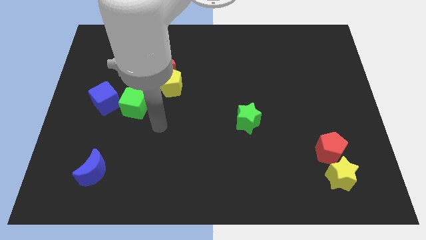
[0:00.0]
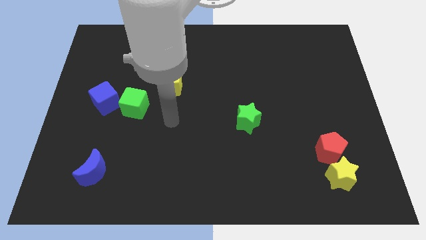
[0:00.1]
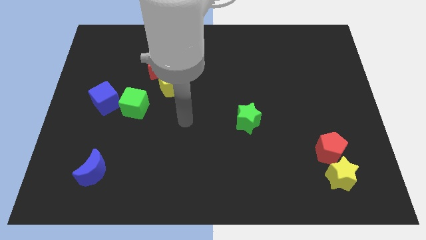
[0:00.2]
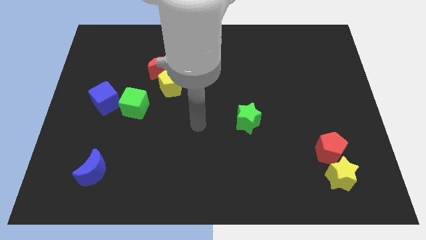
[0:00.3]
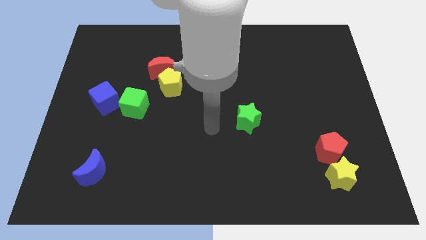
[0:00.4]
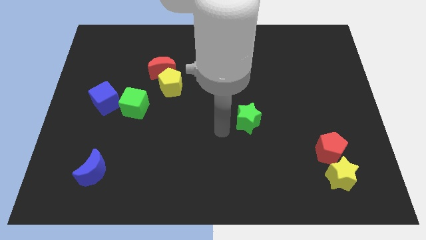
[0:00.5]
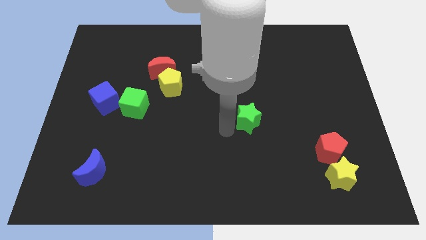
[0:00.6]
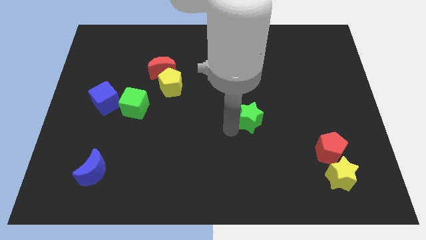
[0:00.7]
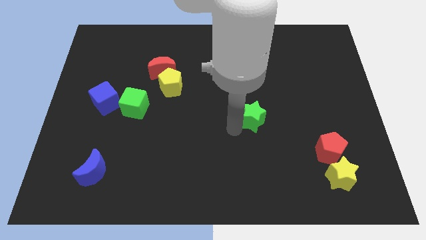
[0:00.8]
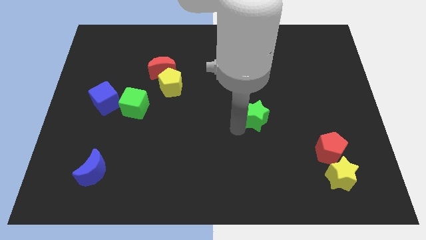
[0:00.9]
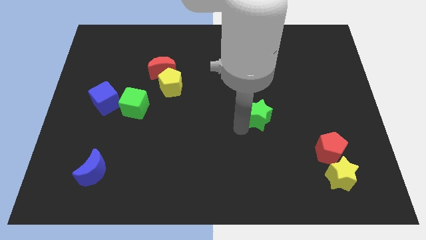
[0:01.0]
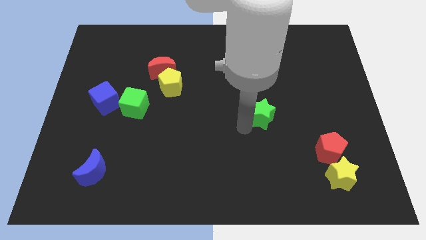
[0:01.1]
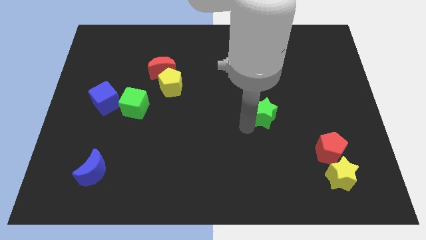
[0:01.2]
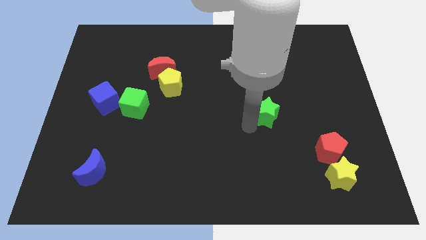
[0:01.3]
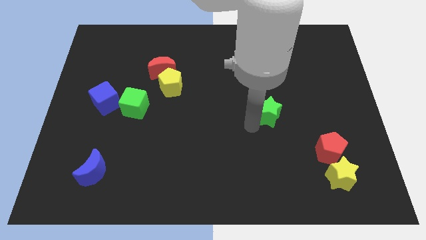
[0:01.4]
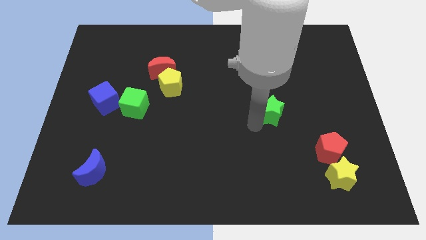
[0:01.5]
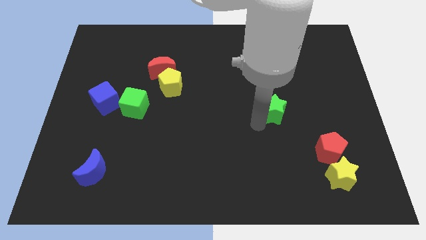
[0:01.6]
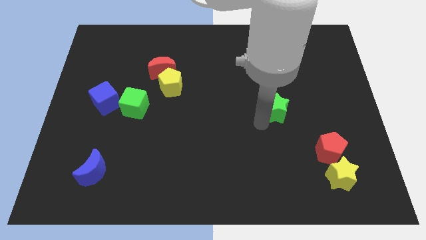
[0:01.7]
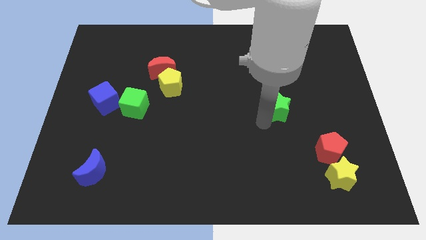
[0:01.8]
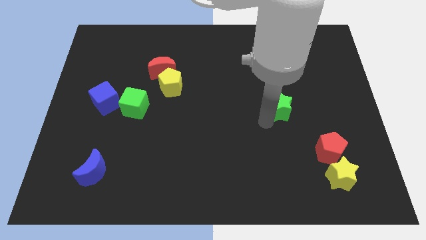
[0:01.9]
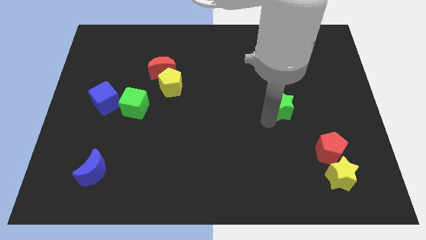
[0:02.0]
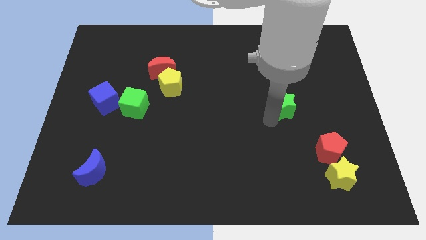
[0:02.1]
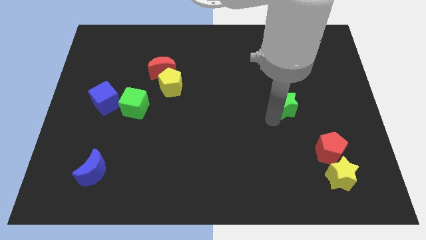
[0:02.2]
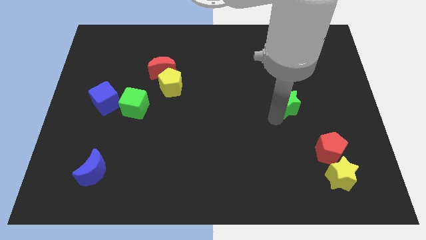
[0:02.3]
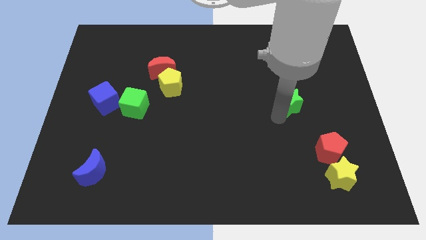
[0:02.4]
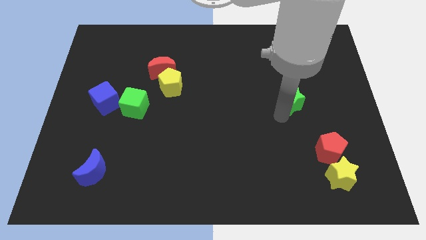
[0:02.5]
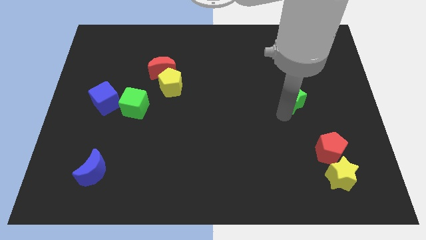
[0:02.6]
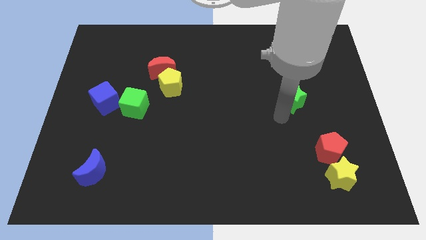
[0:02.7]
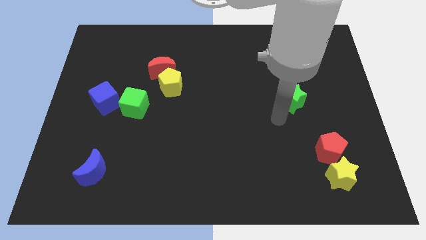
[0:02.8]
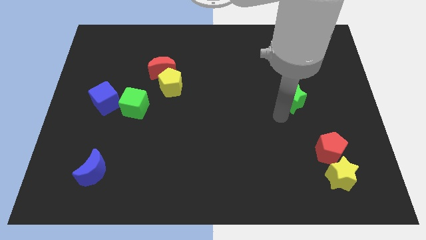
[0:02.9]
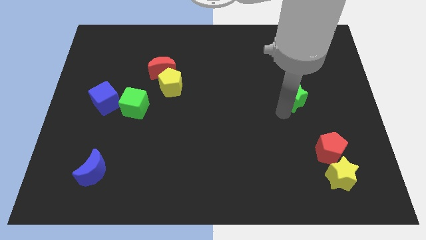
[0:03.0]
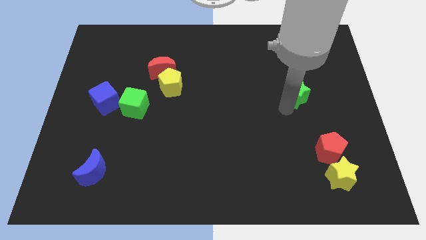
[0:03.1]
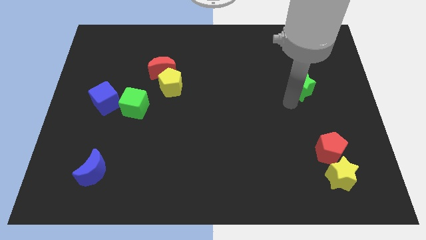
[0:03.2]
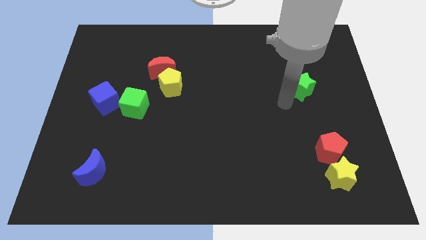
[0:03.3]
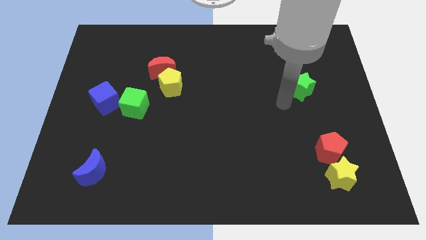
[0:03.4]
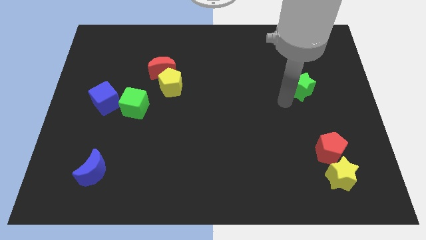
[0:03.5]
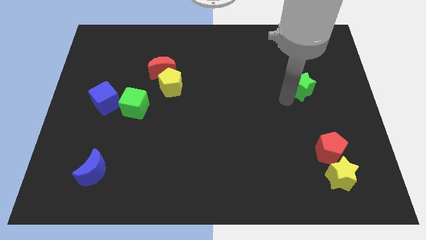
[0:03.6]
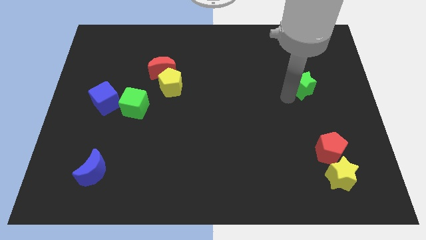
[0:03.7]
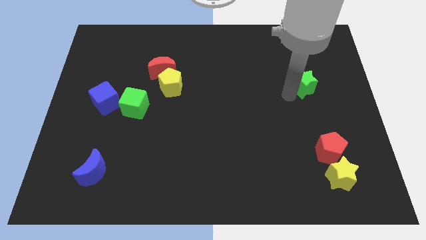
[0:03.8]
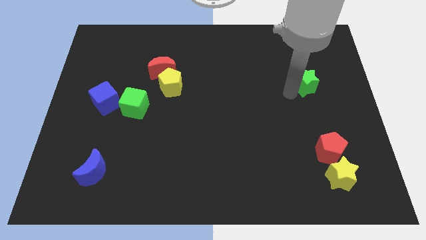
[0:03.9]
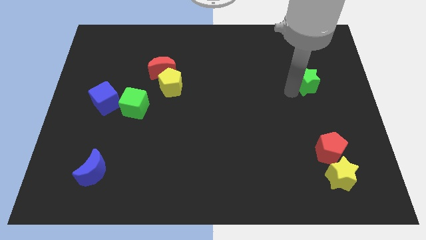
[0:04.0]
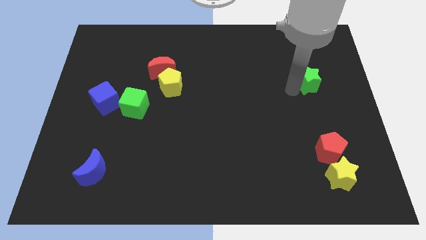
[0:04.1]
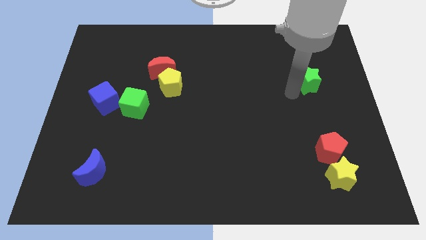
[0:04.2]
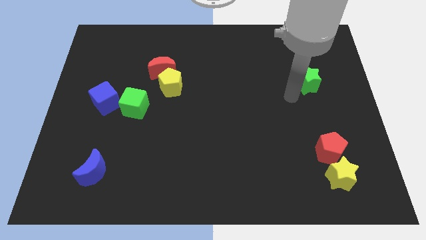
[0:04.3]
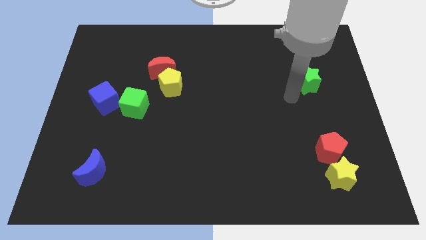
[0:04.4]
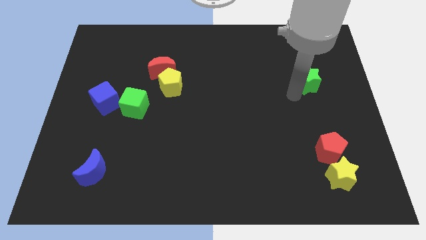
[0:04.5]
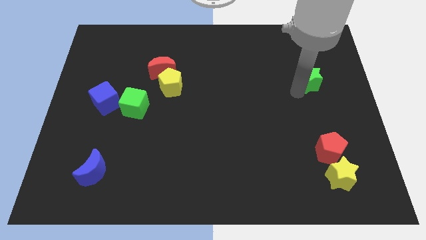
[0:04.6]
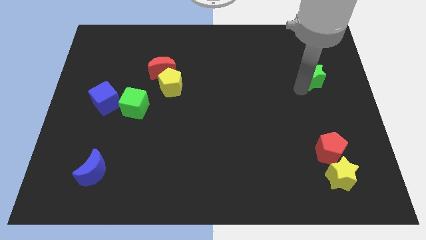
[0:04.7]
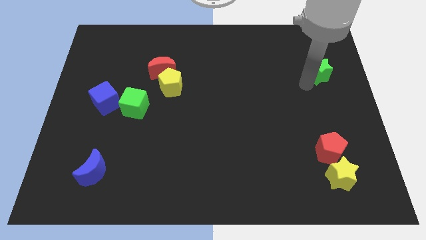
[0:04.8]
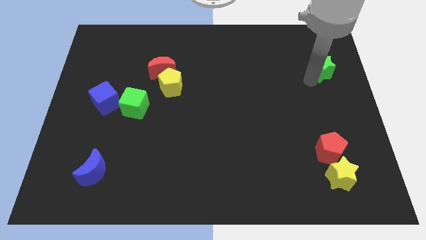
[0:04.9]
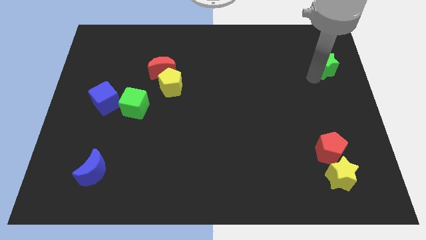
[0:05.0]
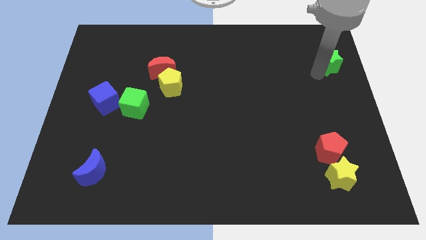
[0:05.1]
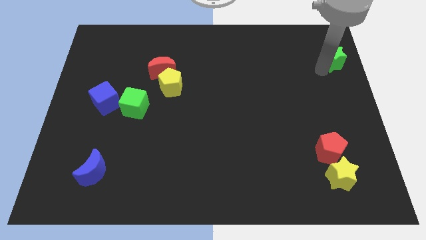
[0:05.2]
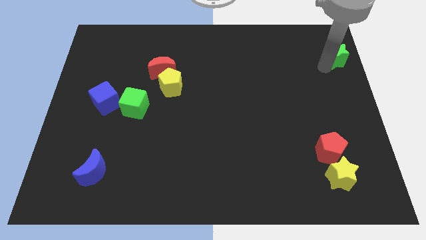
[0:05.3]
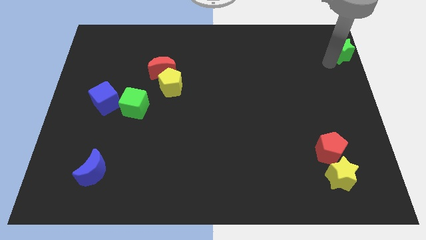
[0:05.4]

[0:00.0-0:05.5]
slide the green star to the top right corner
